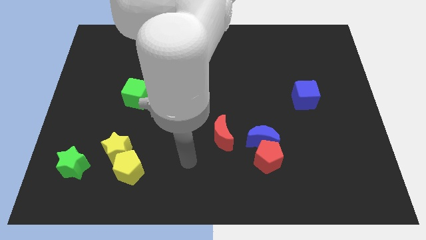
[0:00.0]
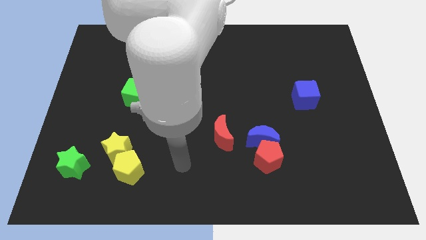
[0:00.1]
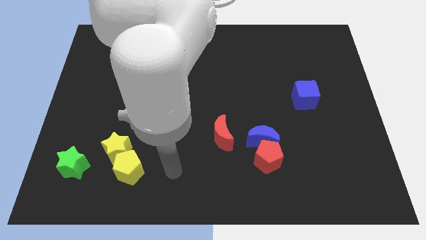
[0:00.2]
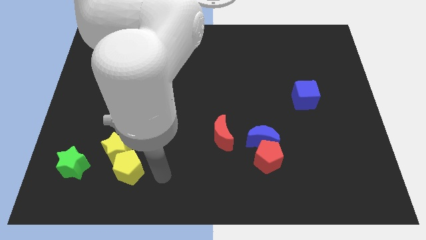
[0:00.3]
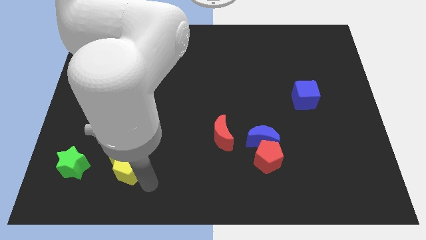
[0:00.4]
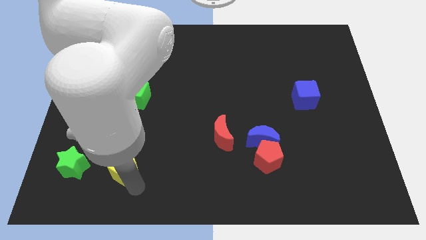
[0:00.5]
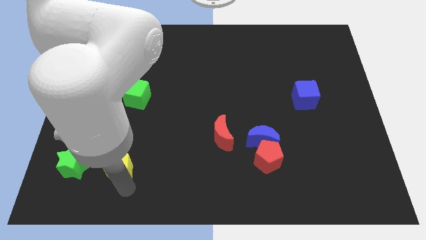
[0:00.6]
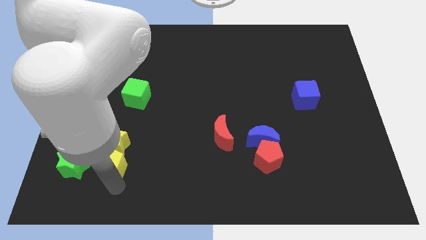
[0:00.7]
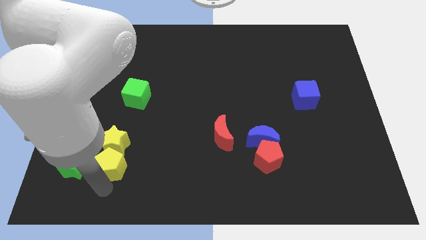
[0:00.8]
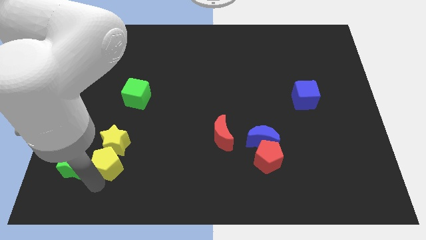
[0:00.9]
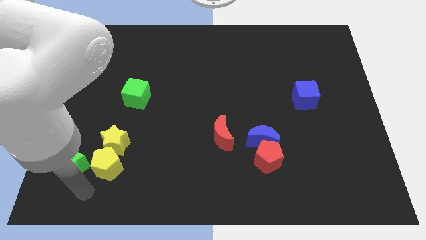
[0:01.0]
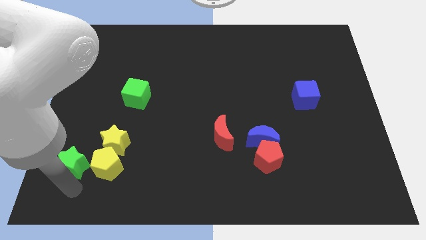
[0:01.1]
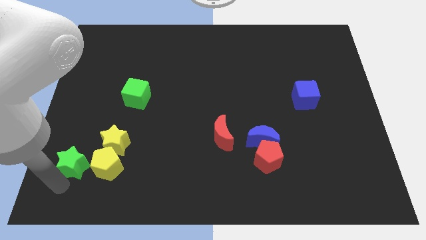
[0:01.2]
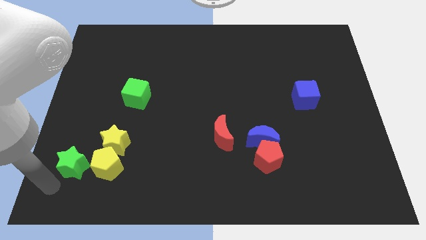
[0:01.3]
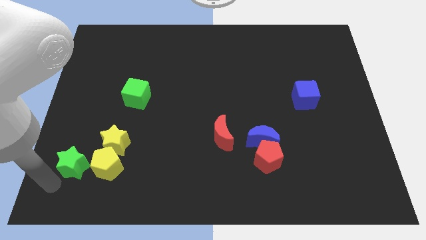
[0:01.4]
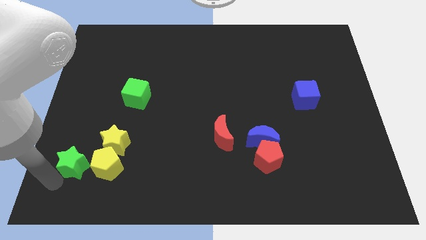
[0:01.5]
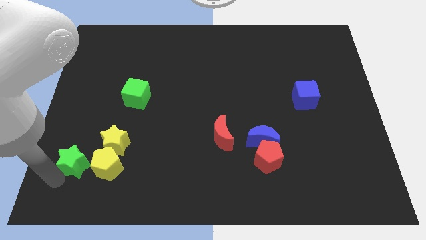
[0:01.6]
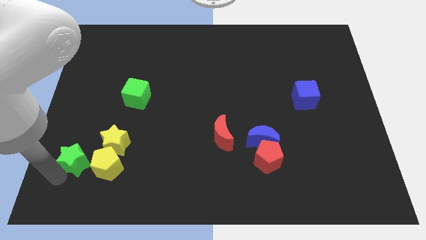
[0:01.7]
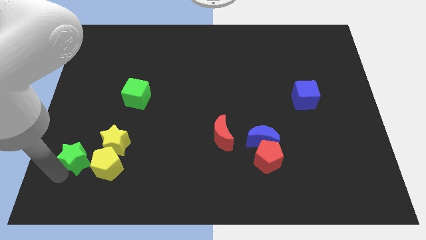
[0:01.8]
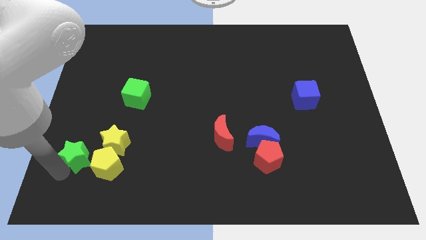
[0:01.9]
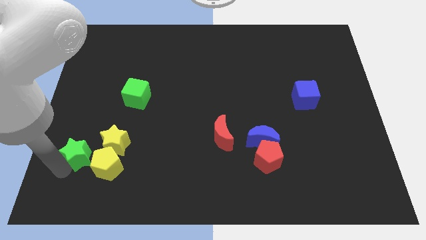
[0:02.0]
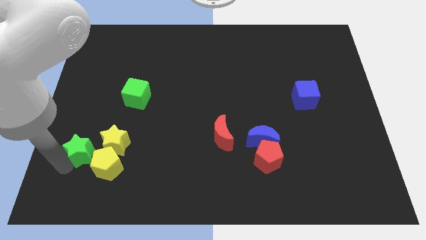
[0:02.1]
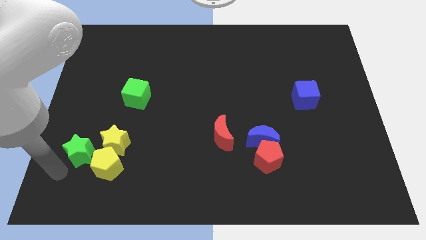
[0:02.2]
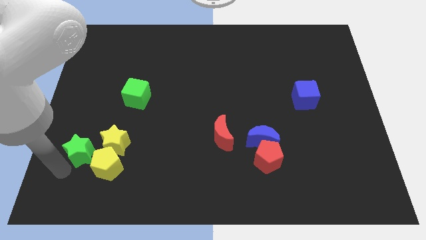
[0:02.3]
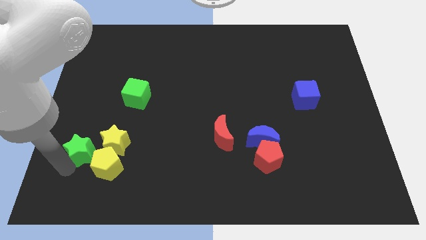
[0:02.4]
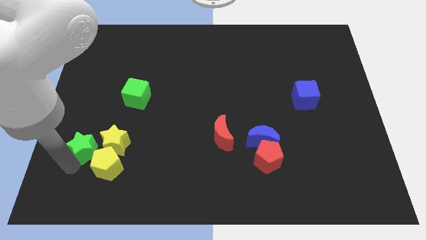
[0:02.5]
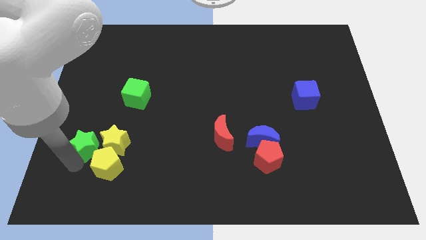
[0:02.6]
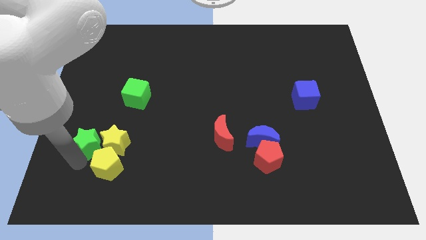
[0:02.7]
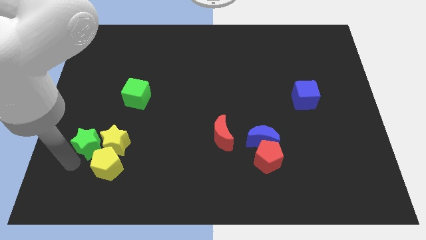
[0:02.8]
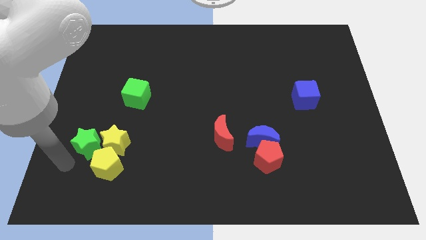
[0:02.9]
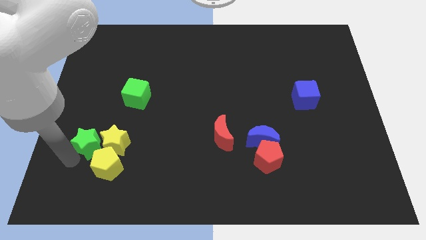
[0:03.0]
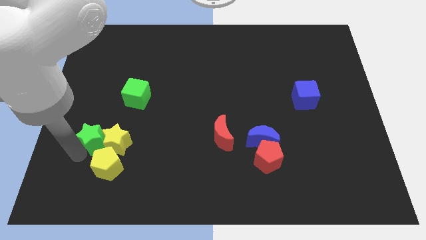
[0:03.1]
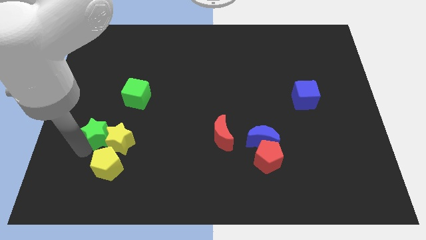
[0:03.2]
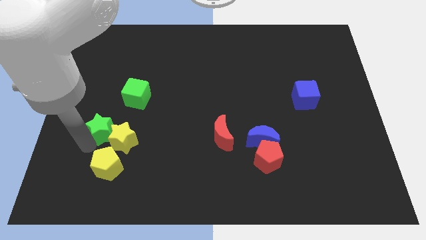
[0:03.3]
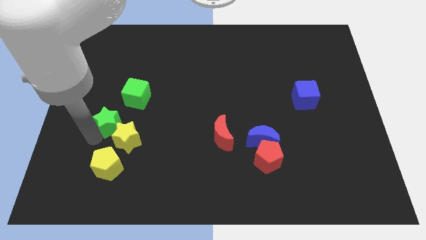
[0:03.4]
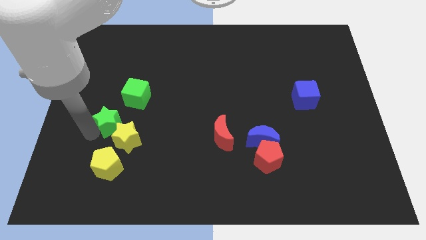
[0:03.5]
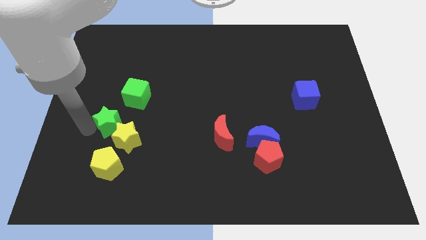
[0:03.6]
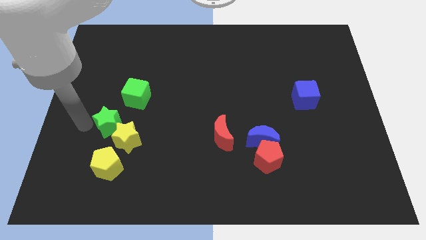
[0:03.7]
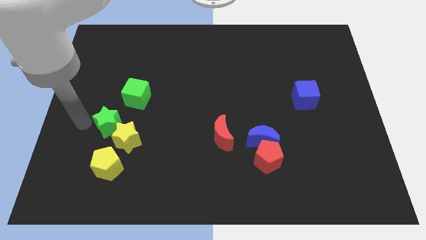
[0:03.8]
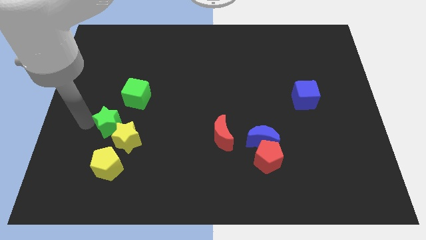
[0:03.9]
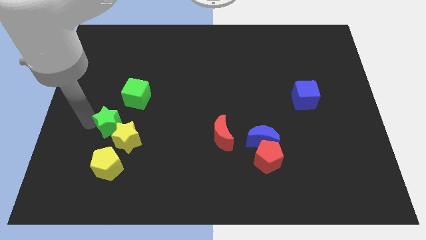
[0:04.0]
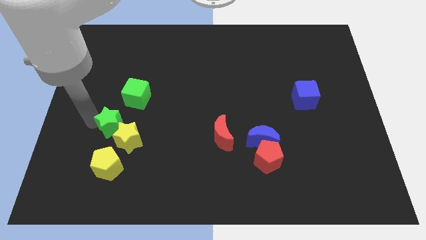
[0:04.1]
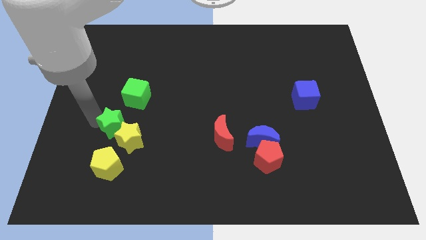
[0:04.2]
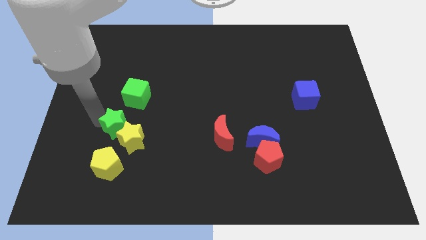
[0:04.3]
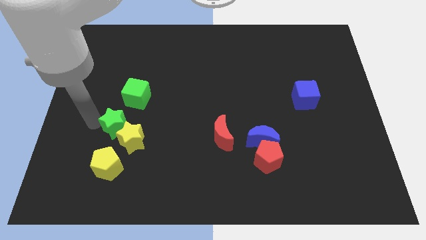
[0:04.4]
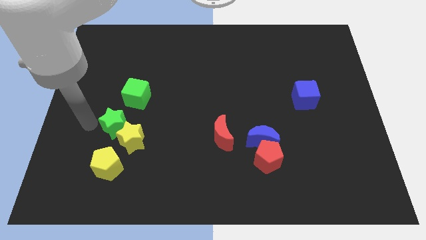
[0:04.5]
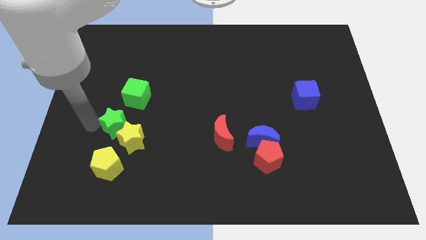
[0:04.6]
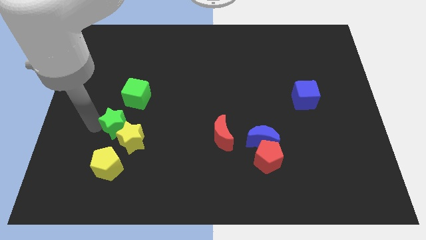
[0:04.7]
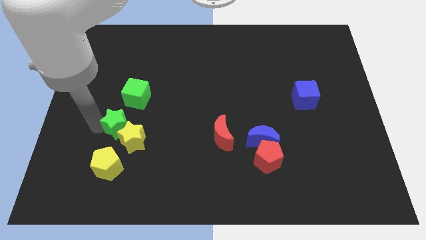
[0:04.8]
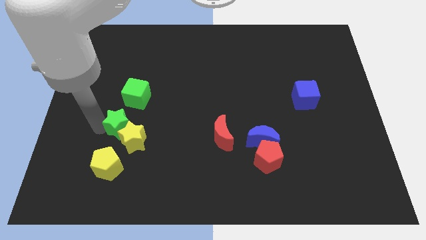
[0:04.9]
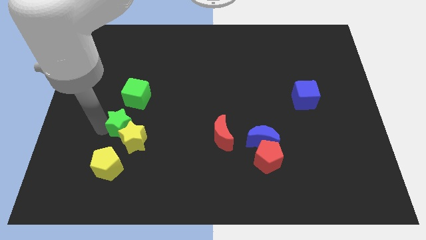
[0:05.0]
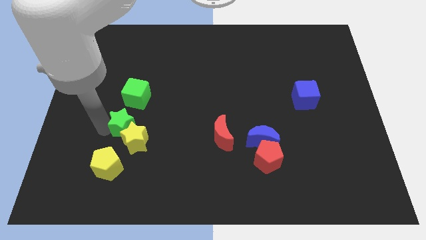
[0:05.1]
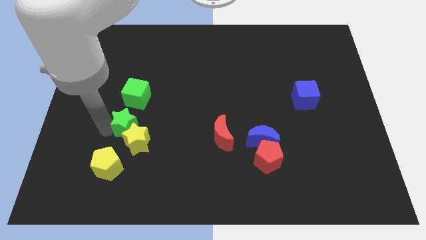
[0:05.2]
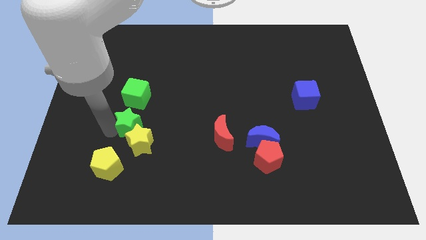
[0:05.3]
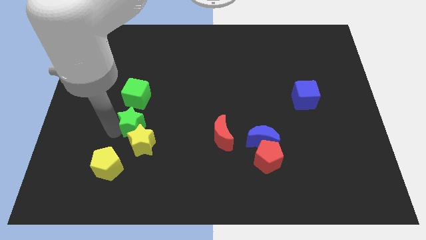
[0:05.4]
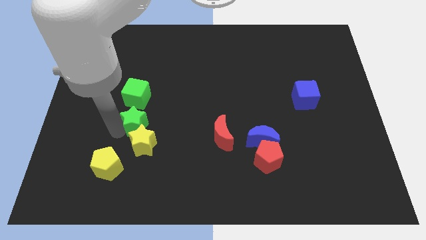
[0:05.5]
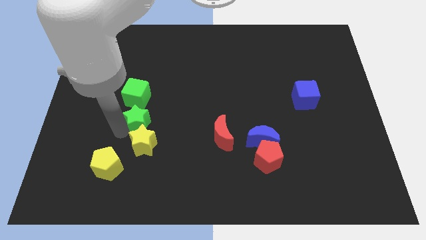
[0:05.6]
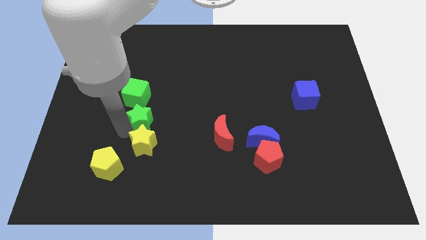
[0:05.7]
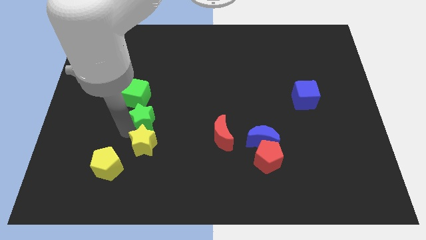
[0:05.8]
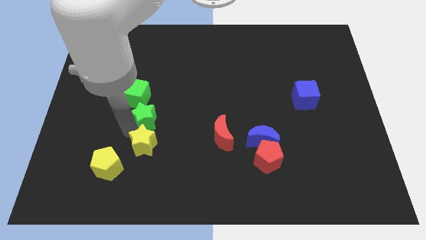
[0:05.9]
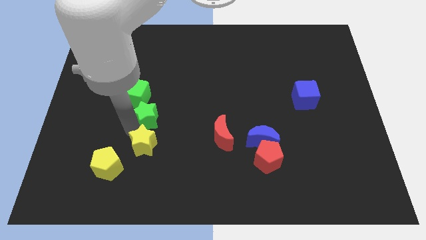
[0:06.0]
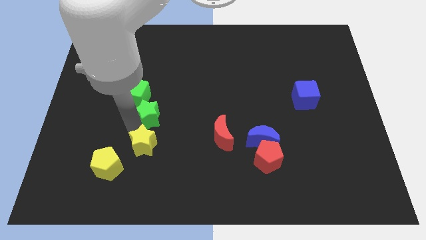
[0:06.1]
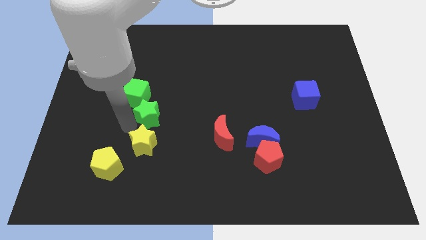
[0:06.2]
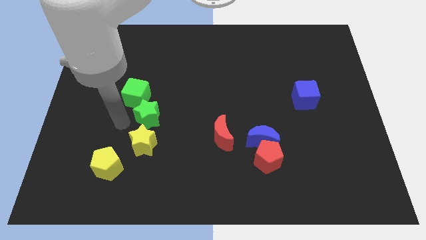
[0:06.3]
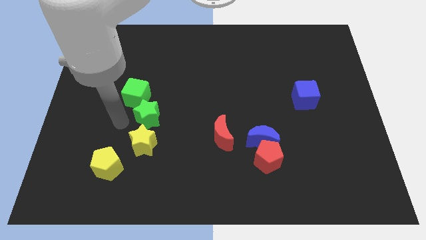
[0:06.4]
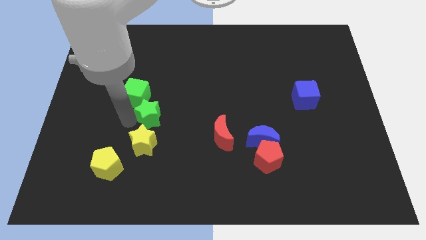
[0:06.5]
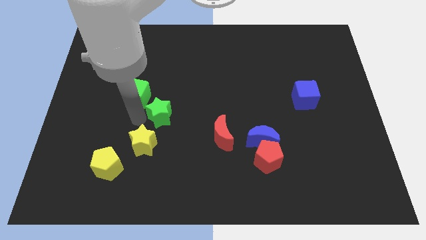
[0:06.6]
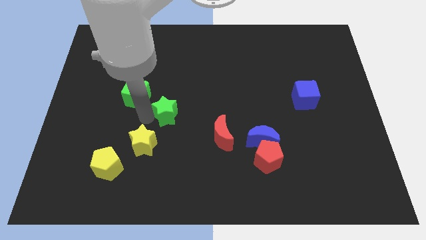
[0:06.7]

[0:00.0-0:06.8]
slide the green star to the center of the board

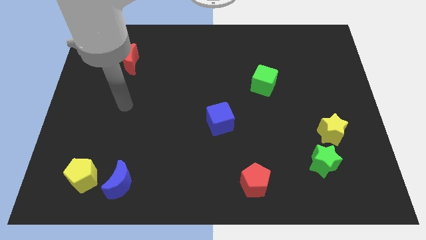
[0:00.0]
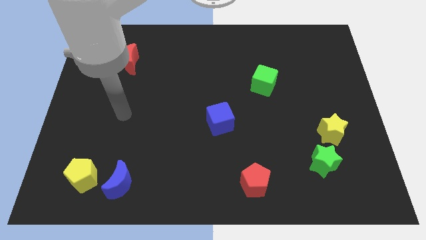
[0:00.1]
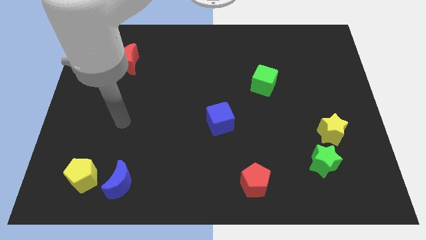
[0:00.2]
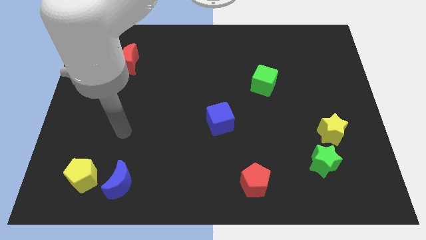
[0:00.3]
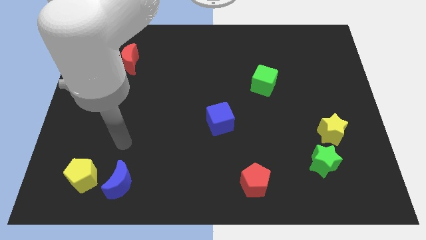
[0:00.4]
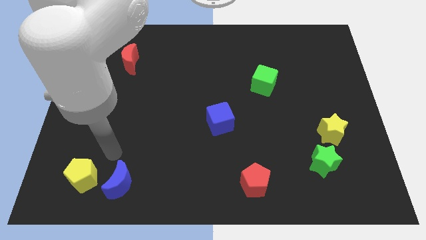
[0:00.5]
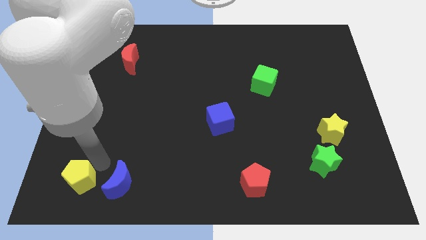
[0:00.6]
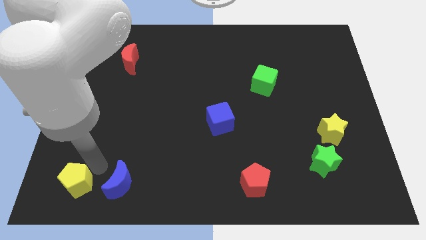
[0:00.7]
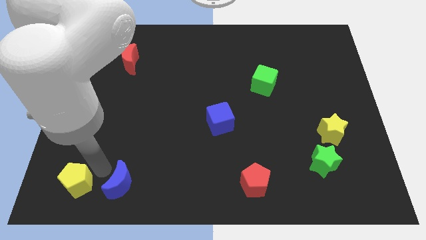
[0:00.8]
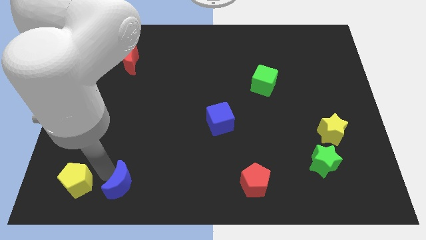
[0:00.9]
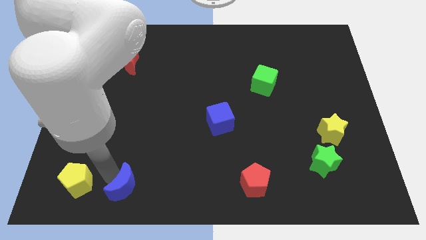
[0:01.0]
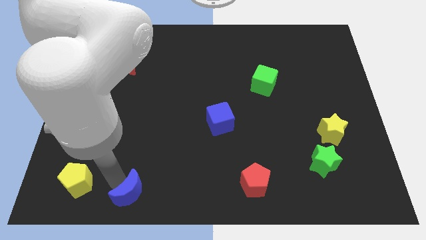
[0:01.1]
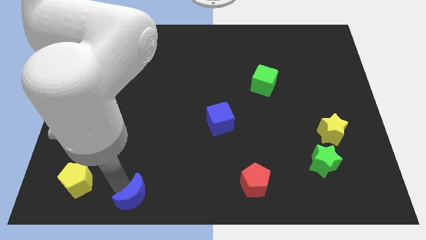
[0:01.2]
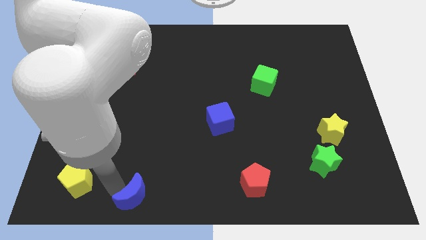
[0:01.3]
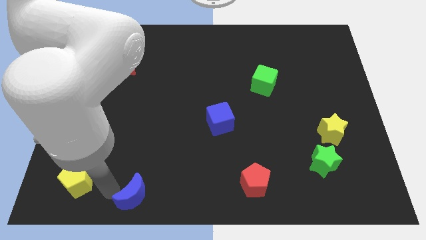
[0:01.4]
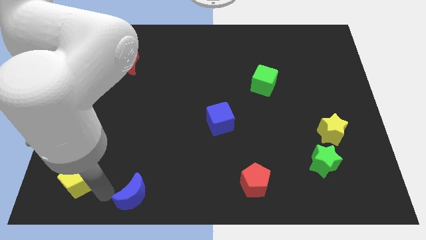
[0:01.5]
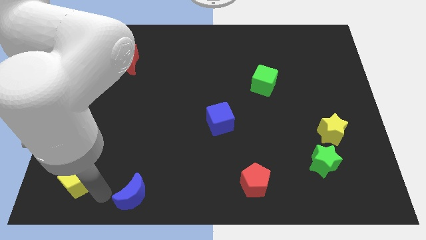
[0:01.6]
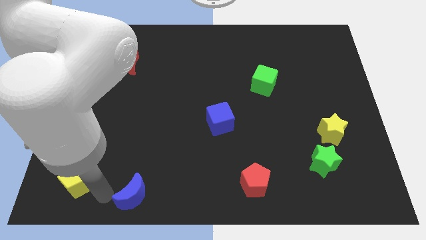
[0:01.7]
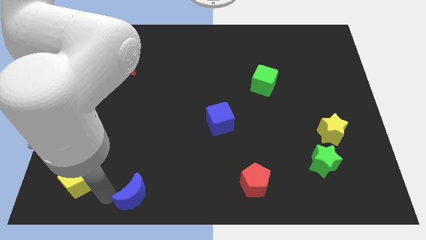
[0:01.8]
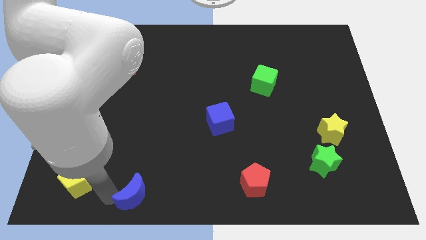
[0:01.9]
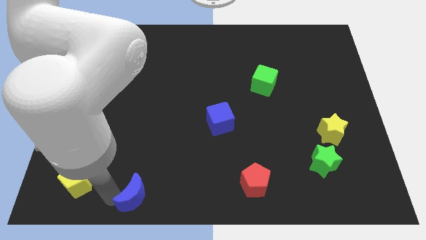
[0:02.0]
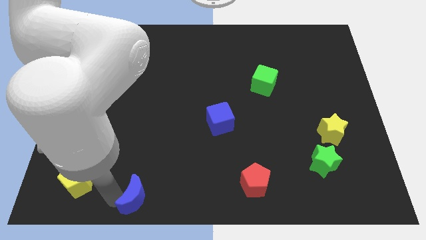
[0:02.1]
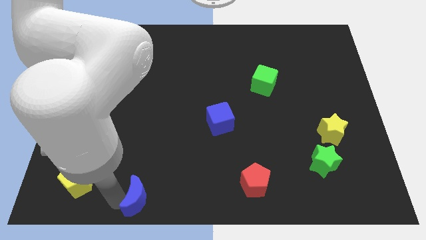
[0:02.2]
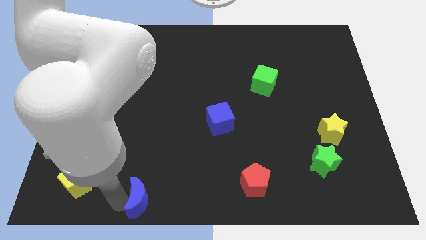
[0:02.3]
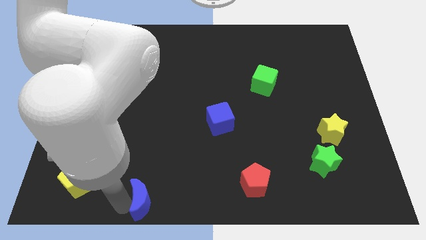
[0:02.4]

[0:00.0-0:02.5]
move the blue moon to the bottom side
